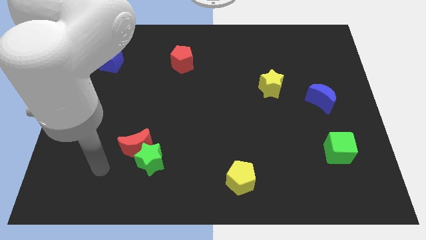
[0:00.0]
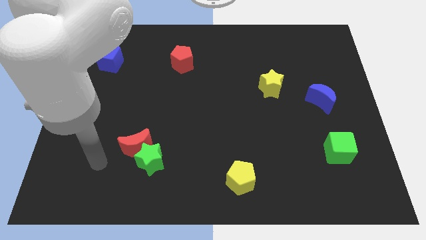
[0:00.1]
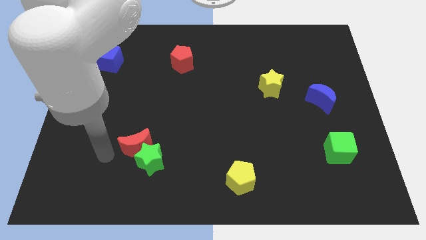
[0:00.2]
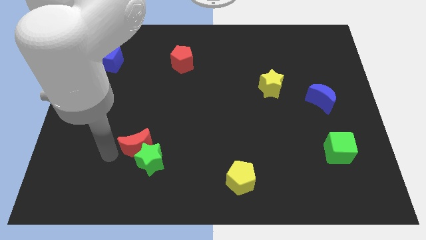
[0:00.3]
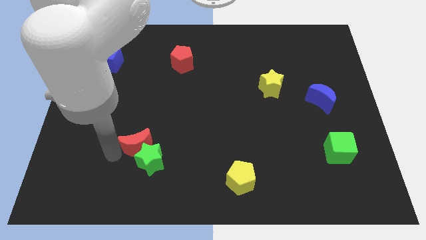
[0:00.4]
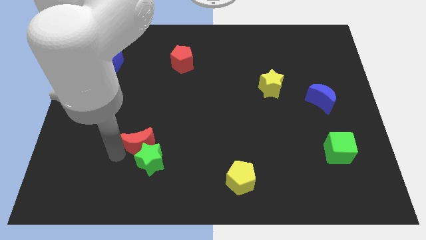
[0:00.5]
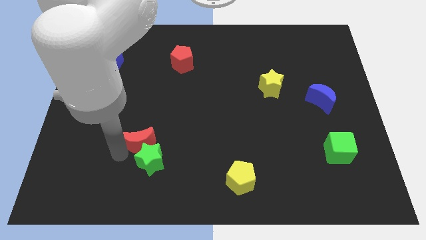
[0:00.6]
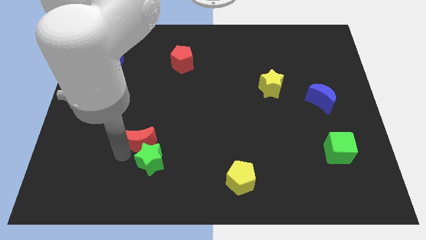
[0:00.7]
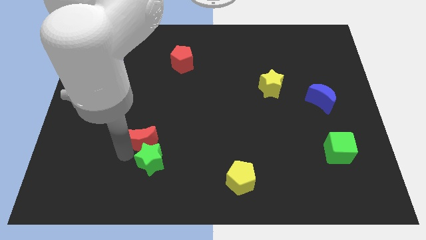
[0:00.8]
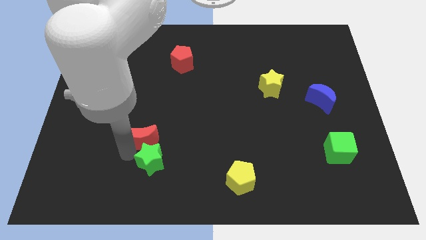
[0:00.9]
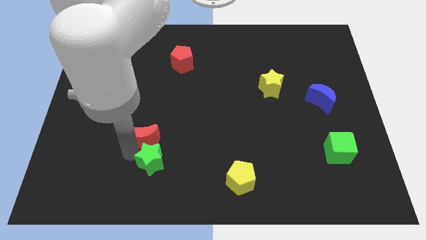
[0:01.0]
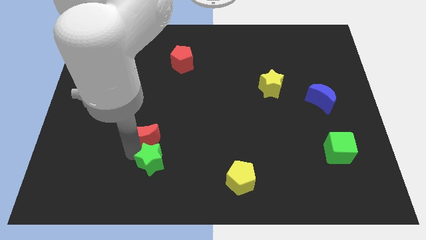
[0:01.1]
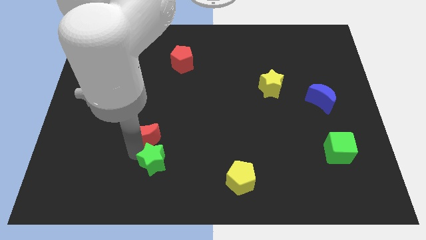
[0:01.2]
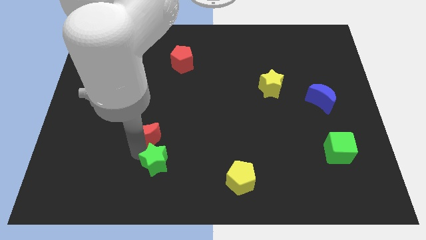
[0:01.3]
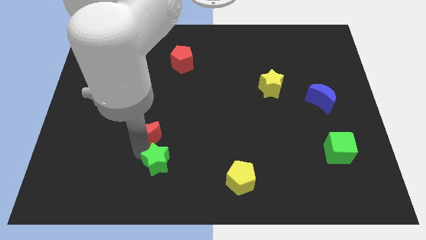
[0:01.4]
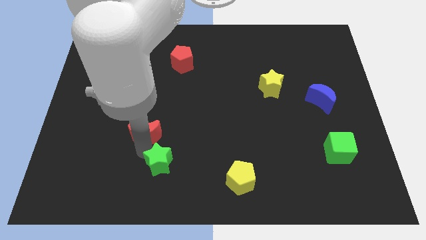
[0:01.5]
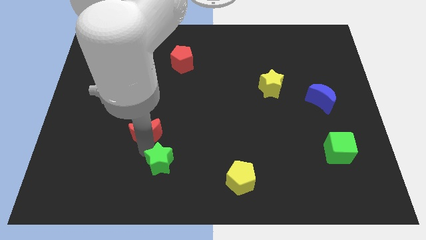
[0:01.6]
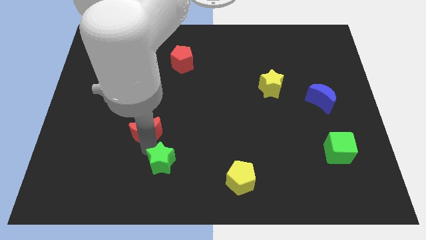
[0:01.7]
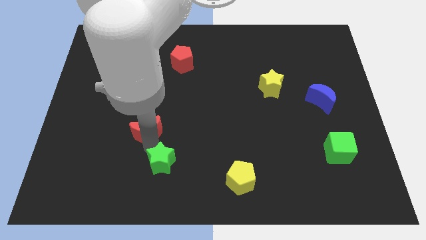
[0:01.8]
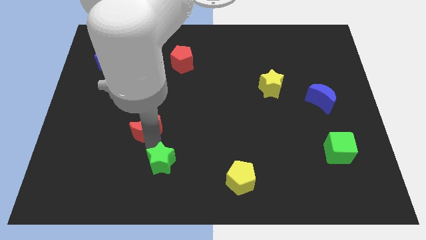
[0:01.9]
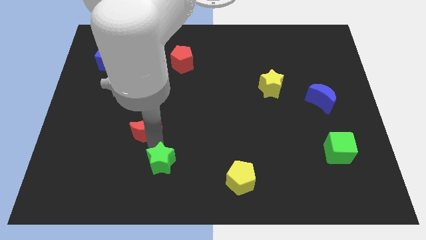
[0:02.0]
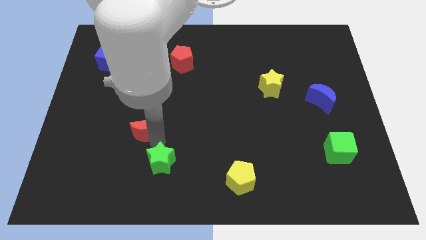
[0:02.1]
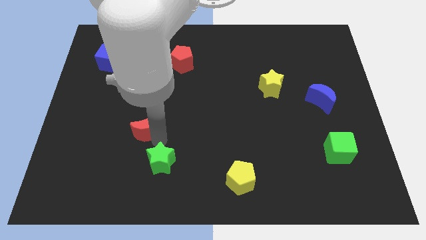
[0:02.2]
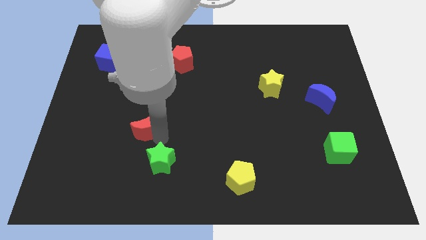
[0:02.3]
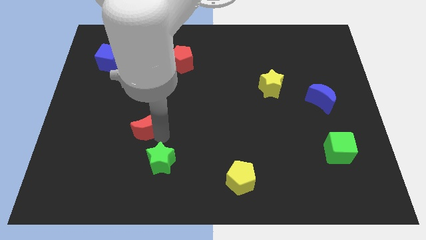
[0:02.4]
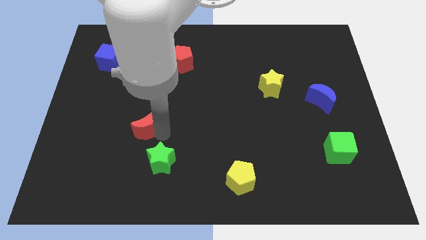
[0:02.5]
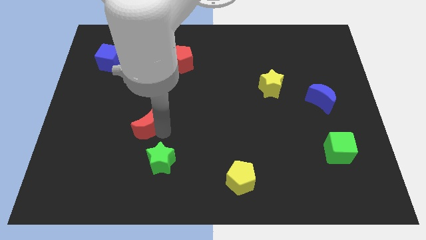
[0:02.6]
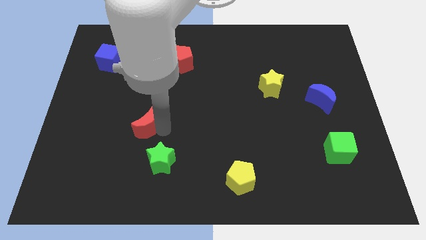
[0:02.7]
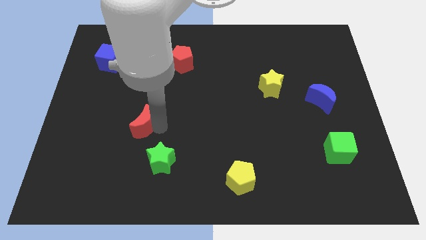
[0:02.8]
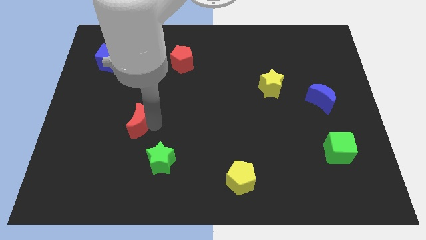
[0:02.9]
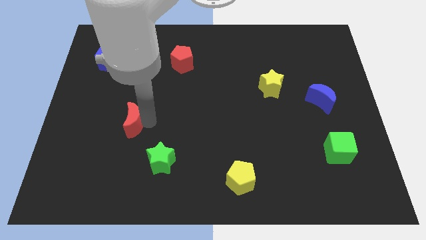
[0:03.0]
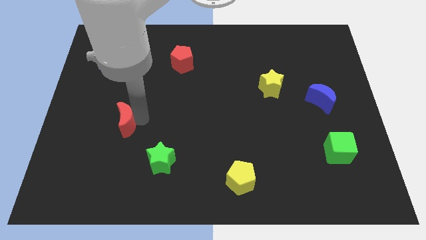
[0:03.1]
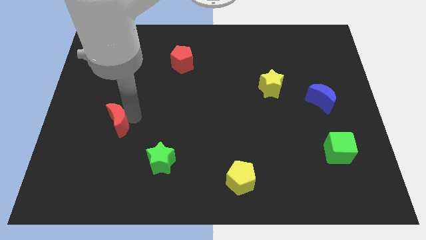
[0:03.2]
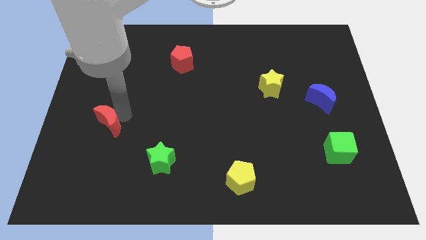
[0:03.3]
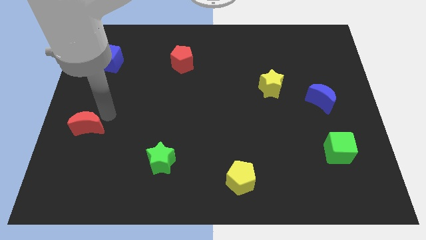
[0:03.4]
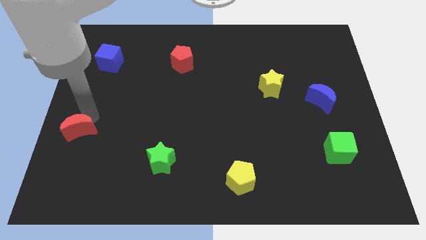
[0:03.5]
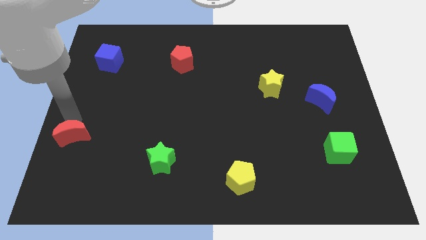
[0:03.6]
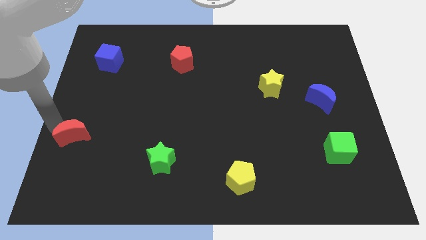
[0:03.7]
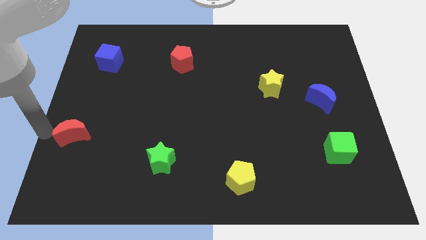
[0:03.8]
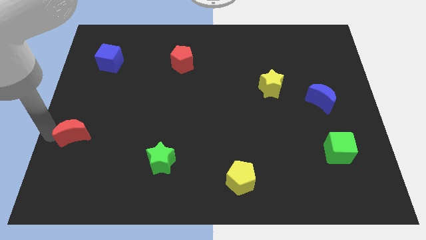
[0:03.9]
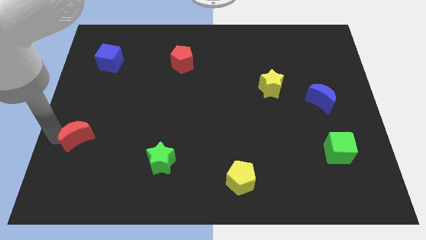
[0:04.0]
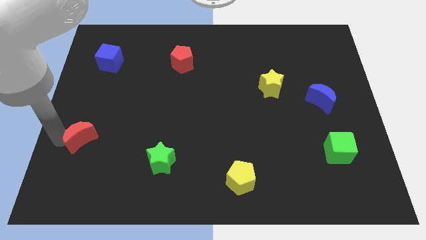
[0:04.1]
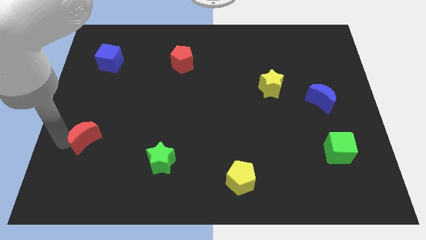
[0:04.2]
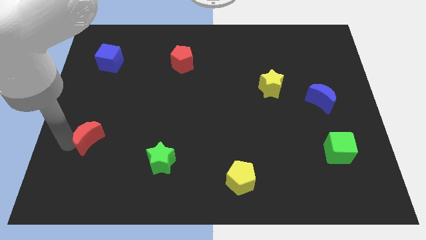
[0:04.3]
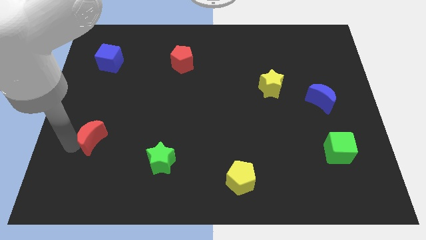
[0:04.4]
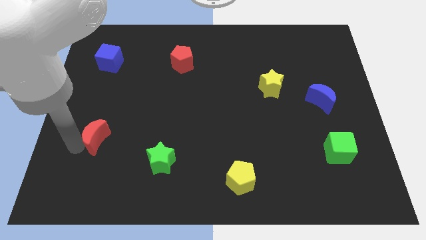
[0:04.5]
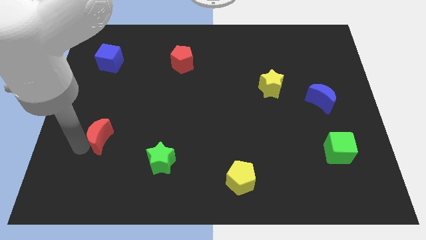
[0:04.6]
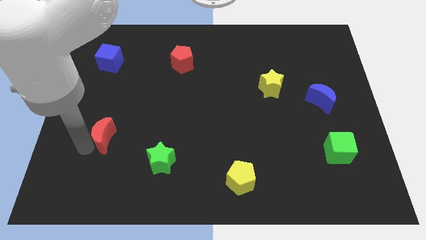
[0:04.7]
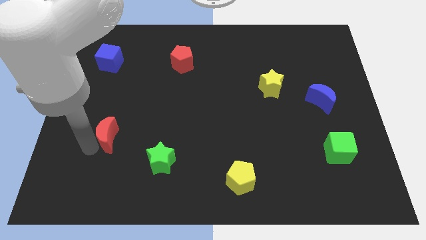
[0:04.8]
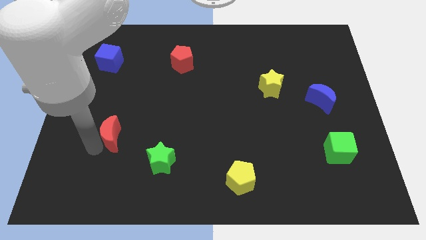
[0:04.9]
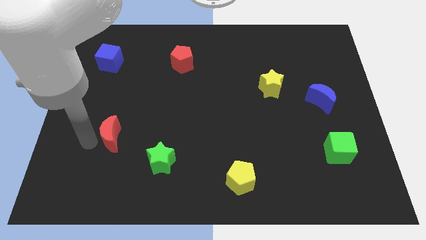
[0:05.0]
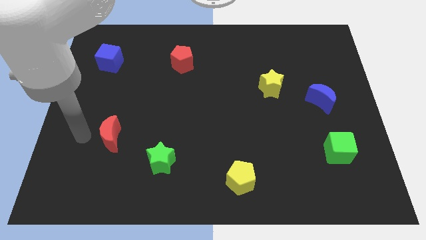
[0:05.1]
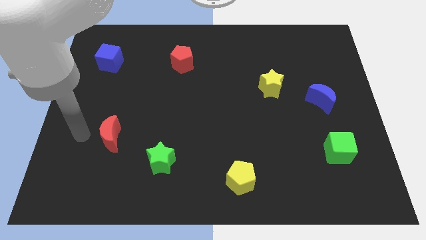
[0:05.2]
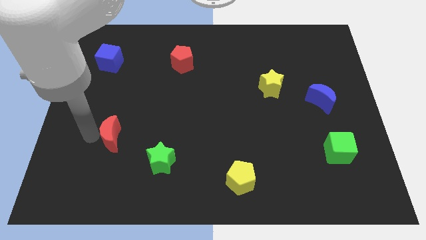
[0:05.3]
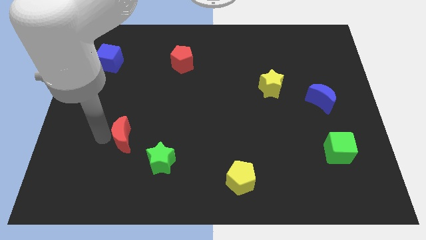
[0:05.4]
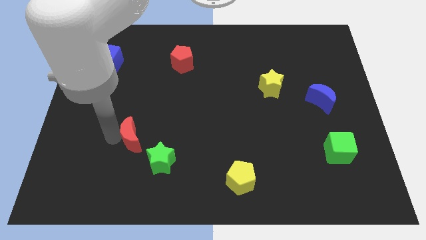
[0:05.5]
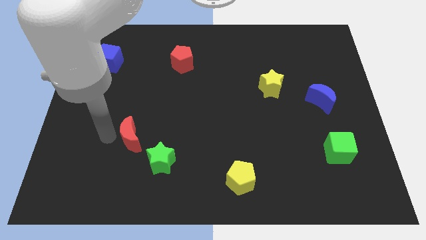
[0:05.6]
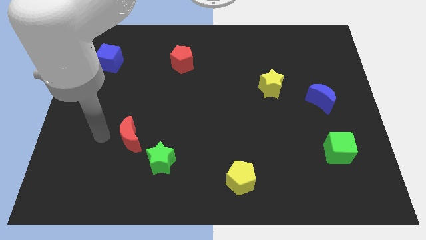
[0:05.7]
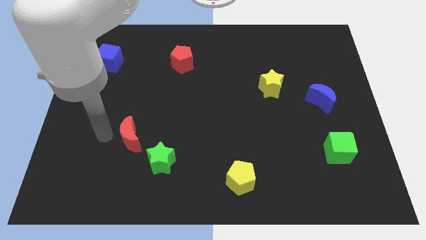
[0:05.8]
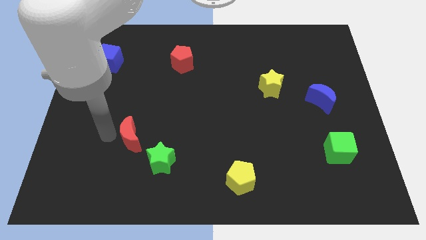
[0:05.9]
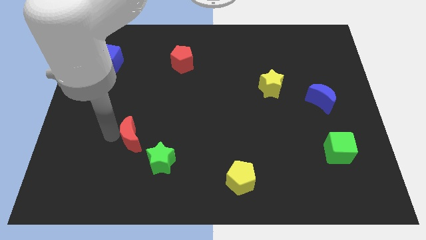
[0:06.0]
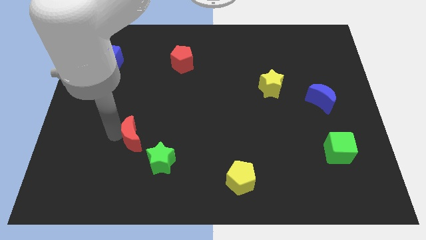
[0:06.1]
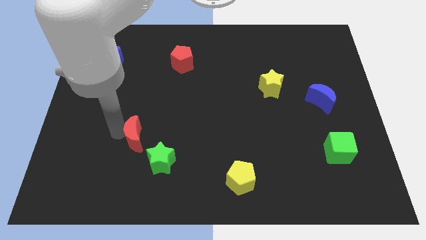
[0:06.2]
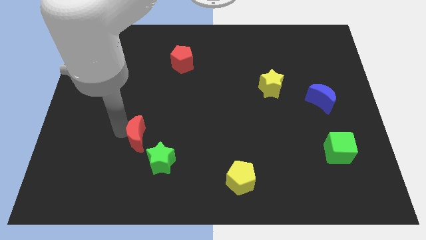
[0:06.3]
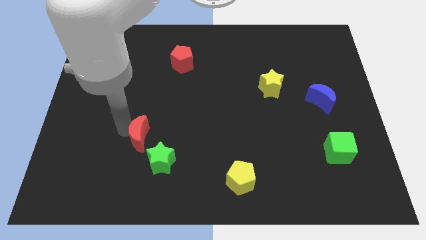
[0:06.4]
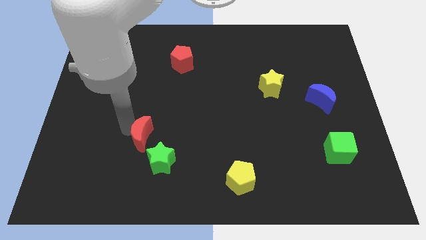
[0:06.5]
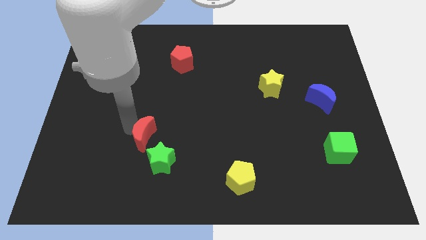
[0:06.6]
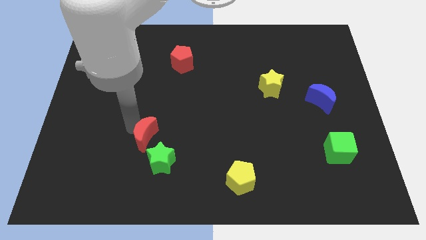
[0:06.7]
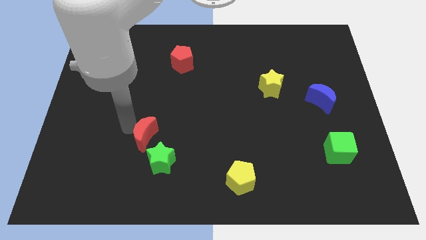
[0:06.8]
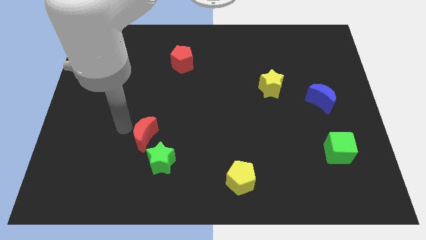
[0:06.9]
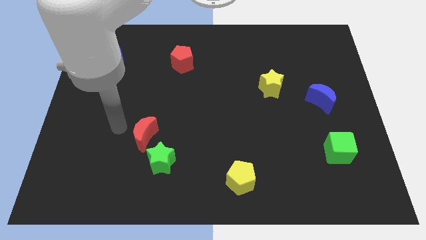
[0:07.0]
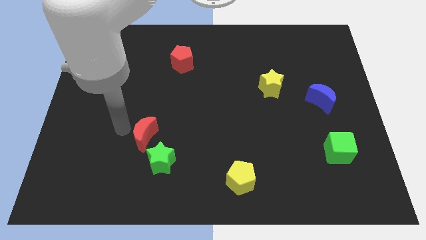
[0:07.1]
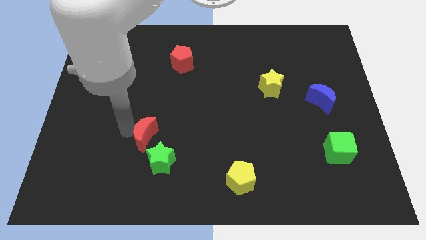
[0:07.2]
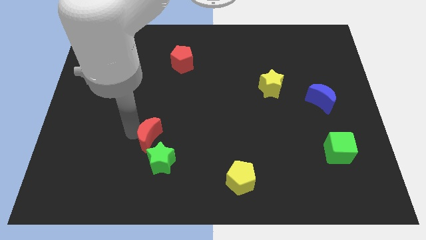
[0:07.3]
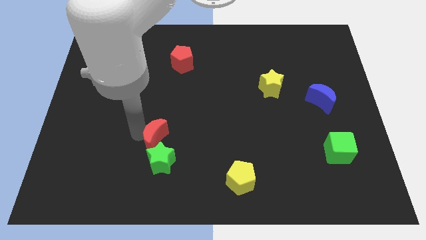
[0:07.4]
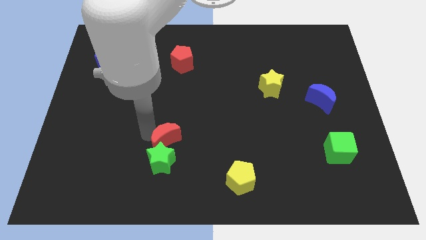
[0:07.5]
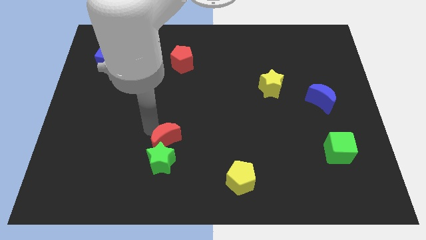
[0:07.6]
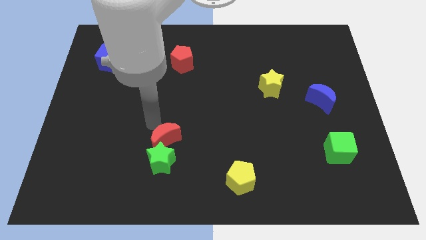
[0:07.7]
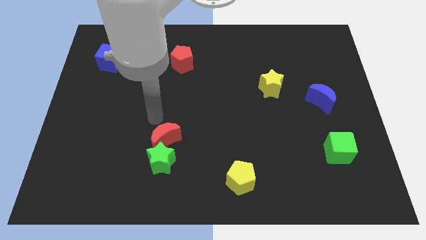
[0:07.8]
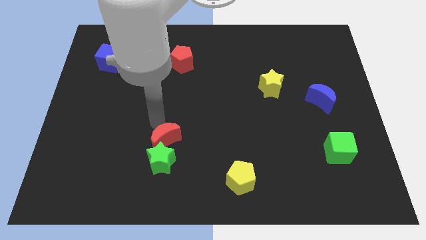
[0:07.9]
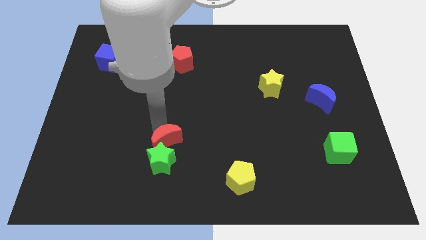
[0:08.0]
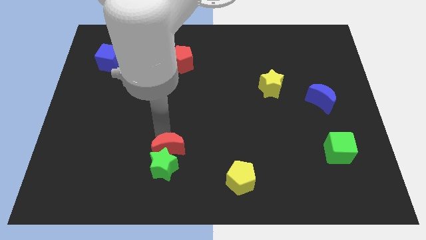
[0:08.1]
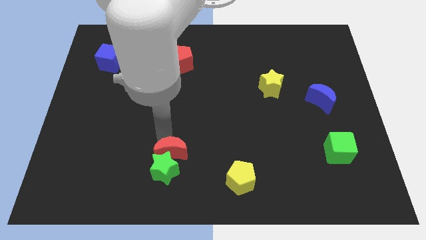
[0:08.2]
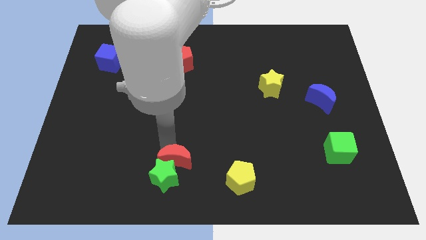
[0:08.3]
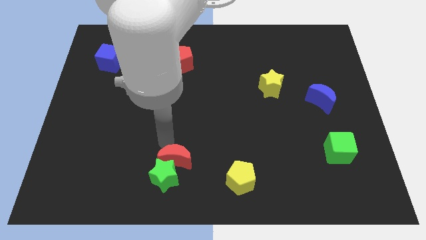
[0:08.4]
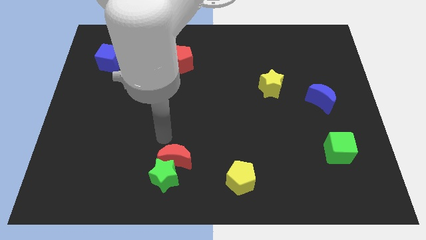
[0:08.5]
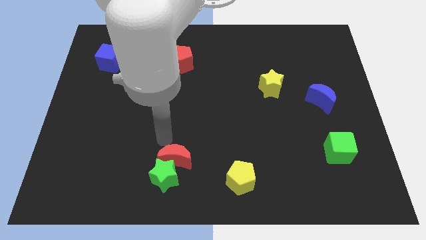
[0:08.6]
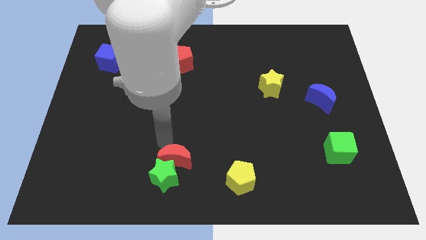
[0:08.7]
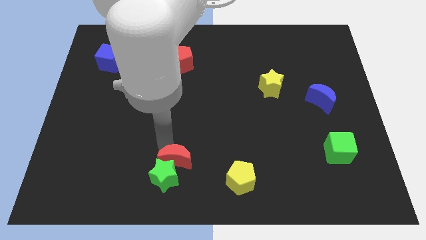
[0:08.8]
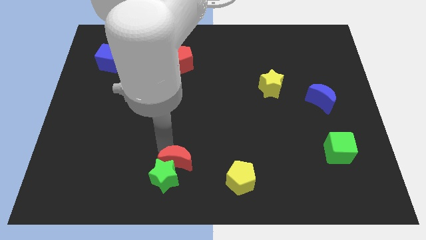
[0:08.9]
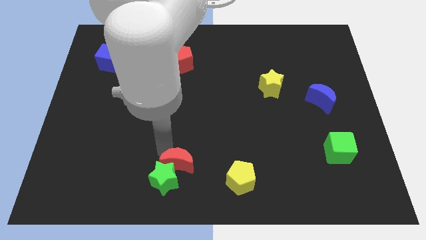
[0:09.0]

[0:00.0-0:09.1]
push the red moon to the bottom
